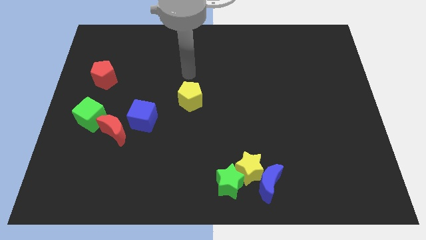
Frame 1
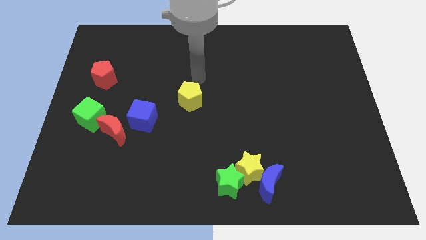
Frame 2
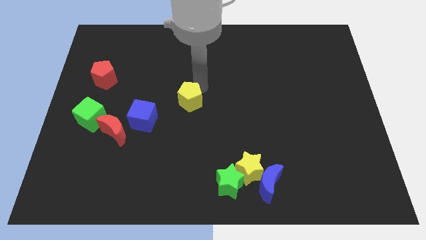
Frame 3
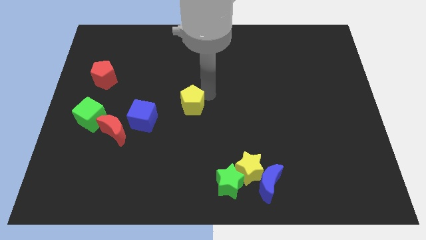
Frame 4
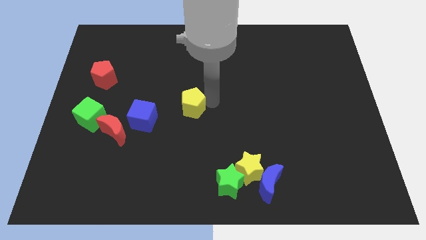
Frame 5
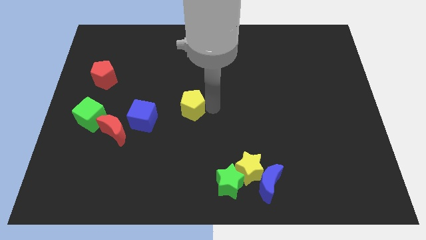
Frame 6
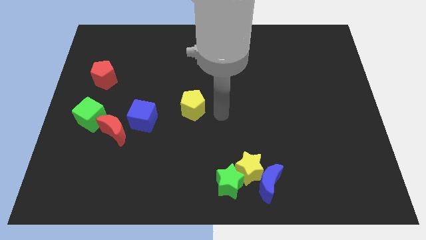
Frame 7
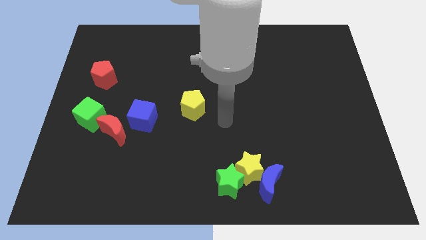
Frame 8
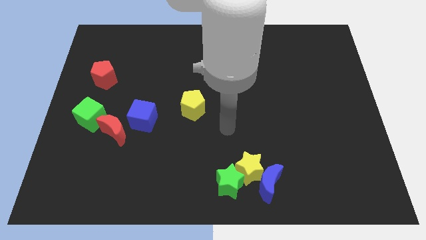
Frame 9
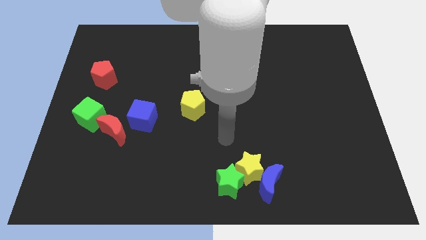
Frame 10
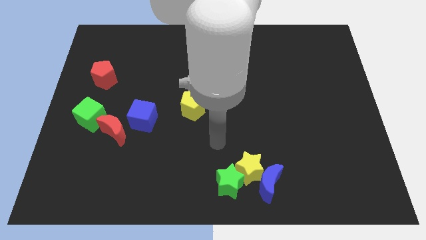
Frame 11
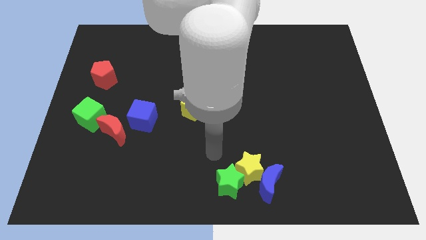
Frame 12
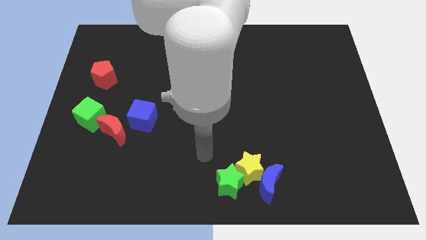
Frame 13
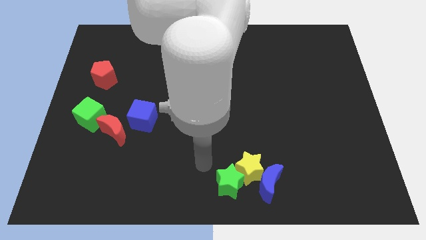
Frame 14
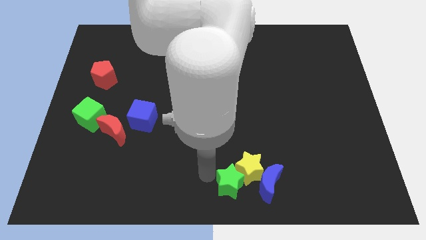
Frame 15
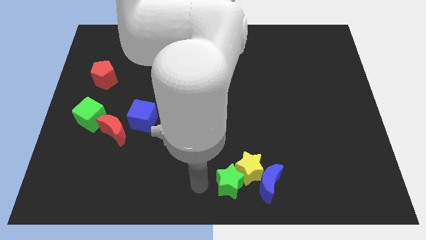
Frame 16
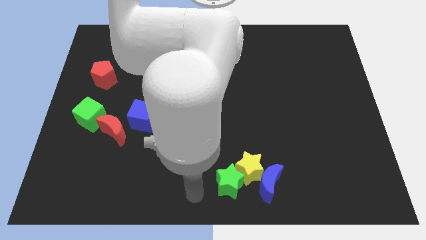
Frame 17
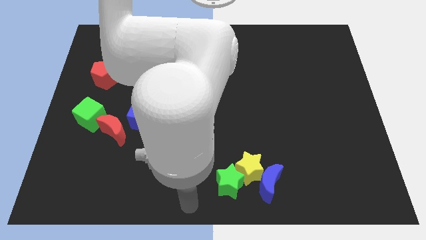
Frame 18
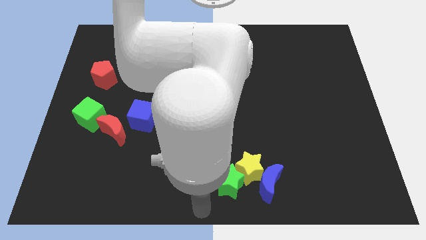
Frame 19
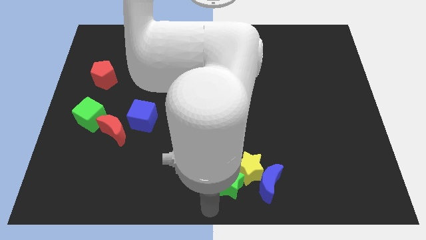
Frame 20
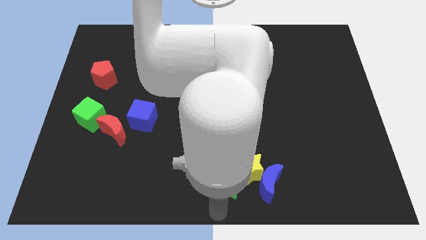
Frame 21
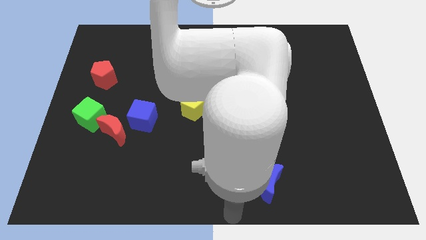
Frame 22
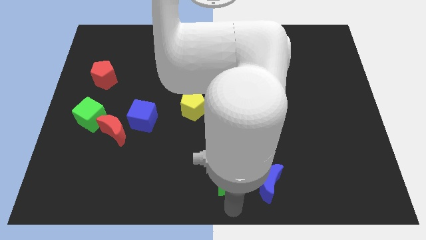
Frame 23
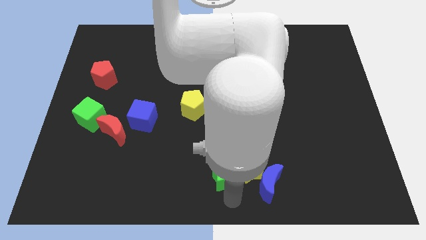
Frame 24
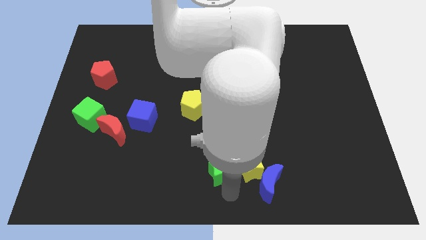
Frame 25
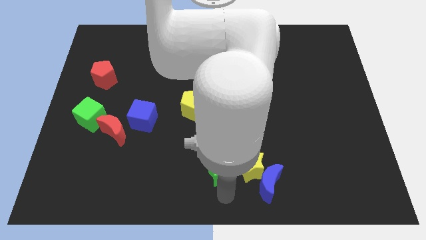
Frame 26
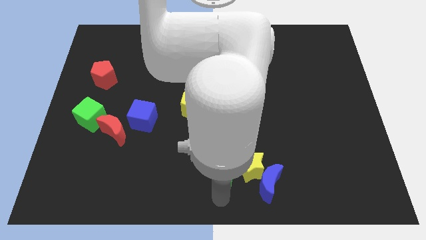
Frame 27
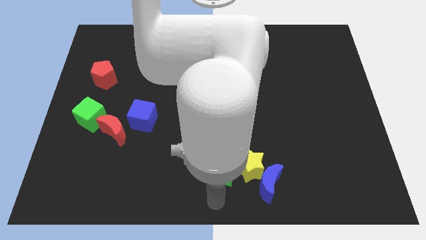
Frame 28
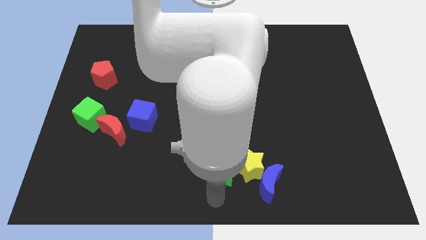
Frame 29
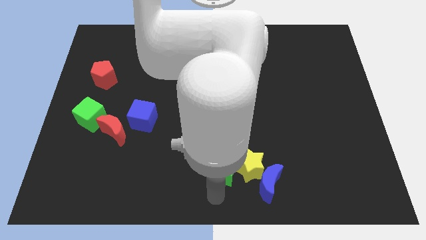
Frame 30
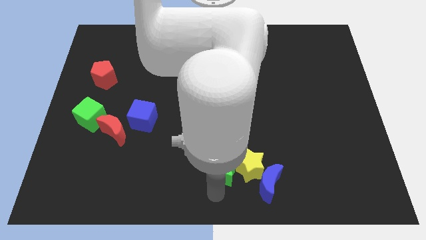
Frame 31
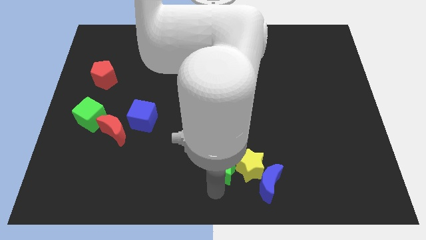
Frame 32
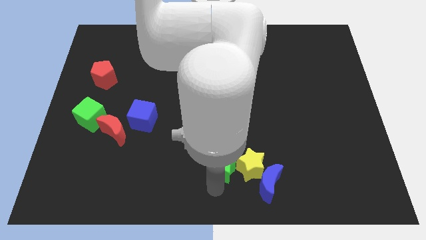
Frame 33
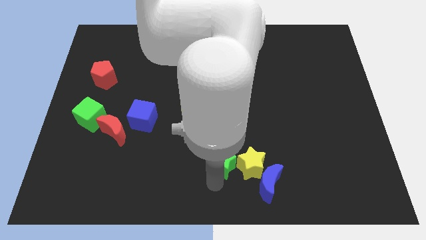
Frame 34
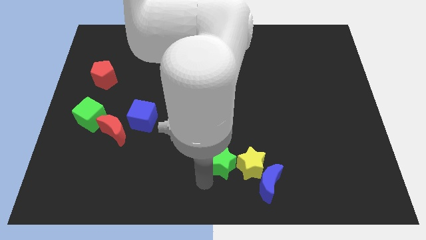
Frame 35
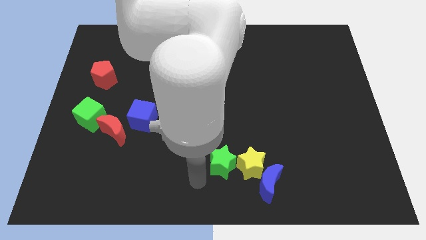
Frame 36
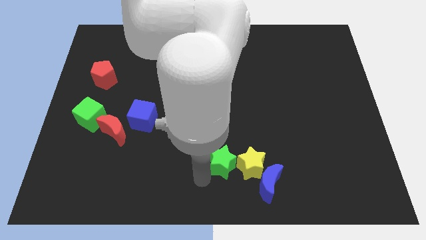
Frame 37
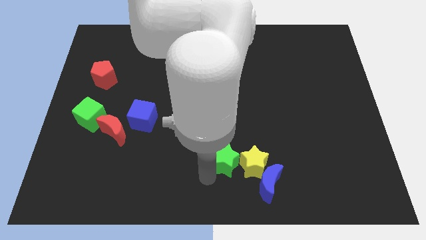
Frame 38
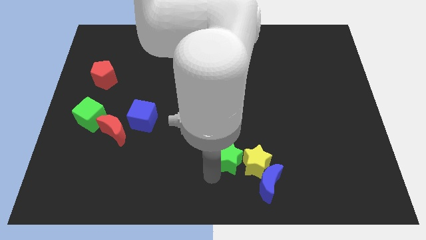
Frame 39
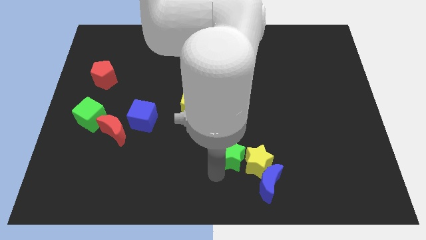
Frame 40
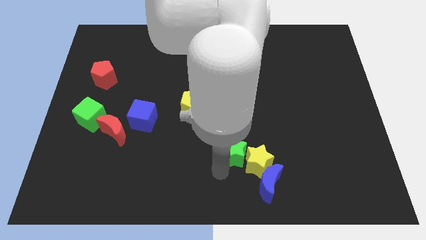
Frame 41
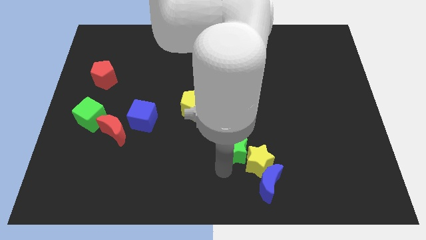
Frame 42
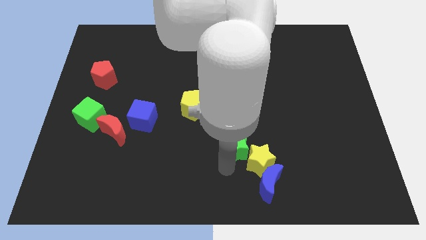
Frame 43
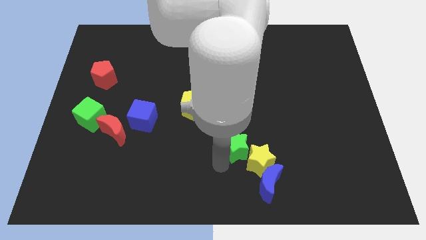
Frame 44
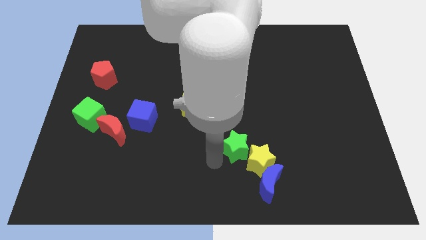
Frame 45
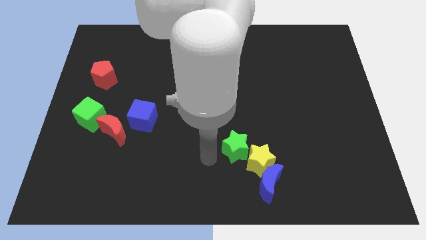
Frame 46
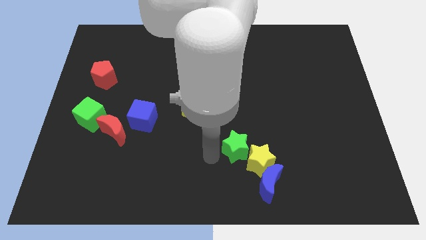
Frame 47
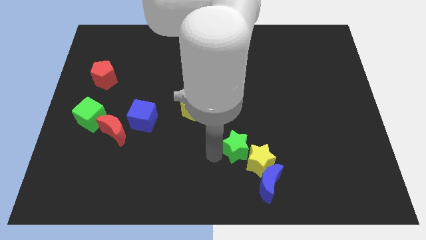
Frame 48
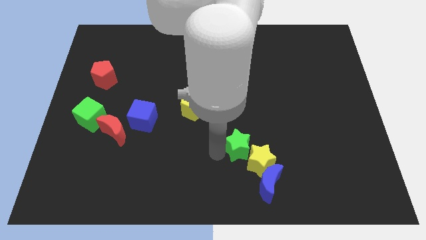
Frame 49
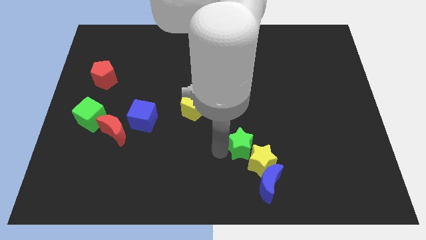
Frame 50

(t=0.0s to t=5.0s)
move the green star to the top side of the blue moon

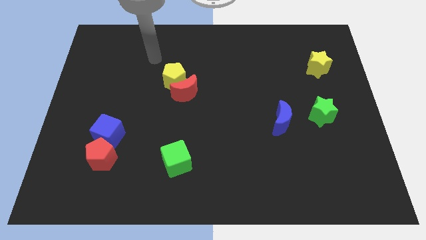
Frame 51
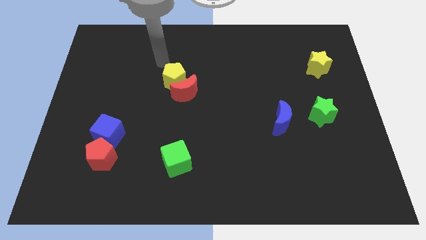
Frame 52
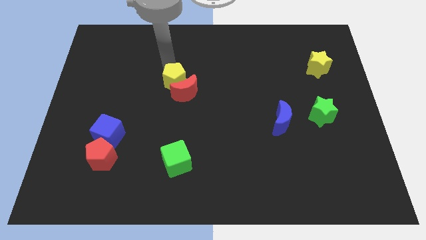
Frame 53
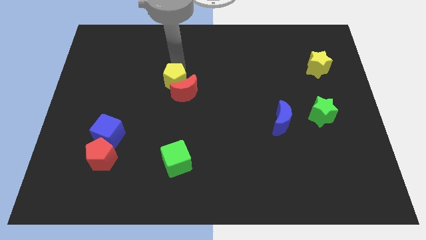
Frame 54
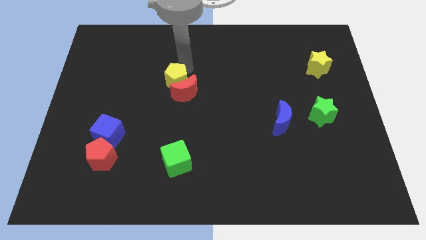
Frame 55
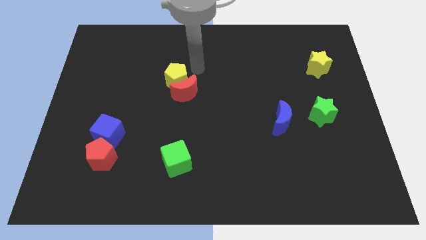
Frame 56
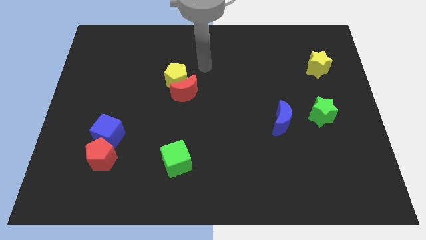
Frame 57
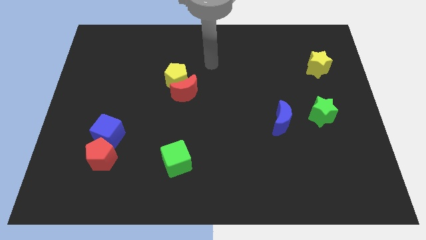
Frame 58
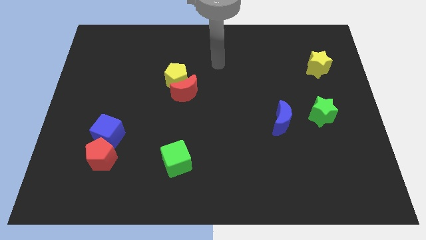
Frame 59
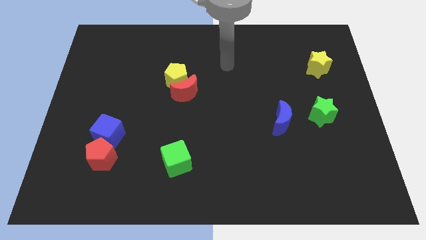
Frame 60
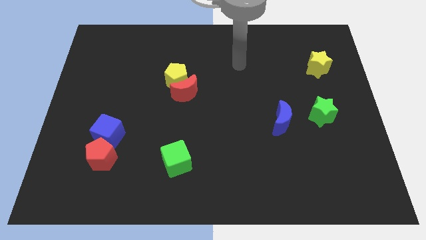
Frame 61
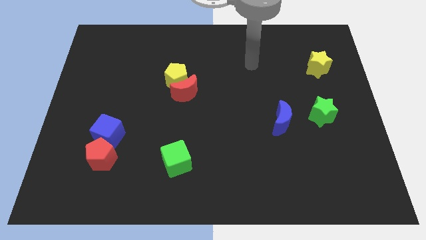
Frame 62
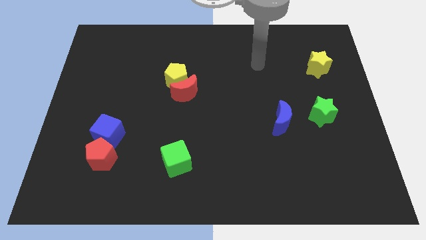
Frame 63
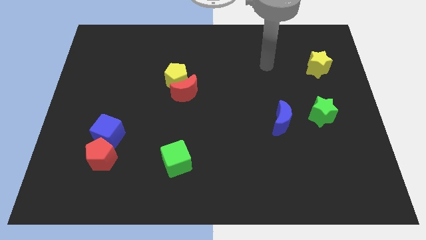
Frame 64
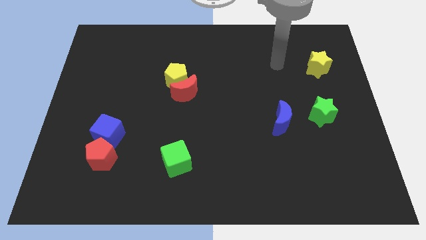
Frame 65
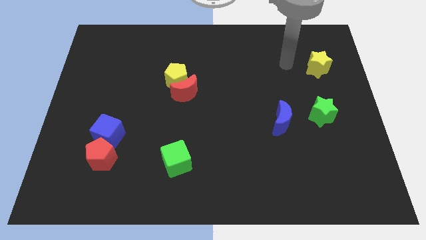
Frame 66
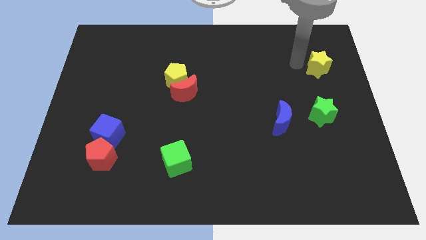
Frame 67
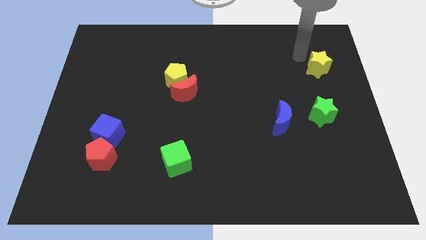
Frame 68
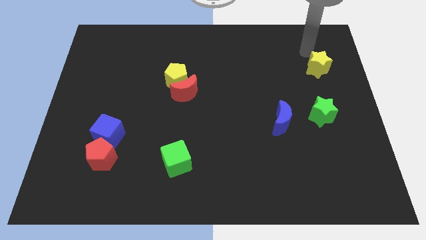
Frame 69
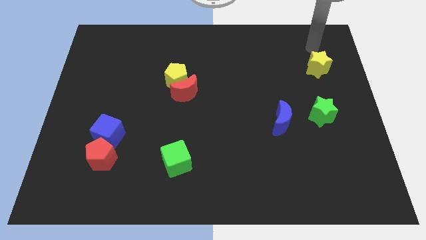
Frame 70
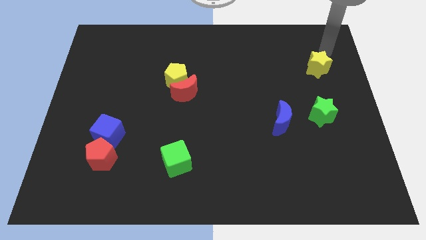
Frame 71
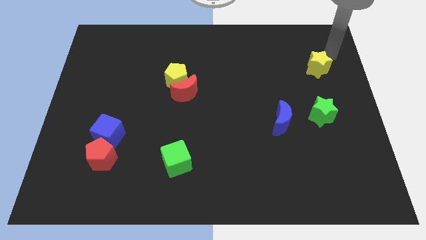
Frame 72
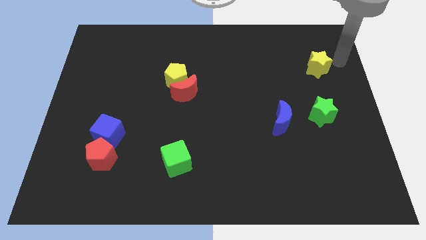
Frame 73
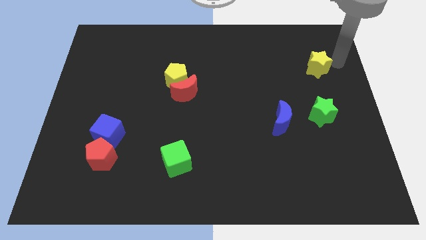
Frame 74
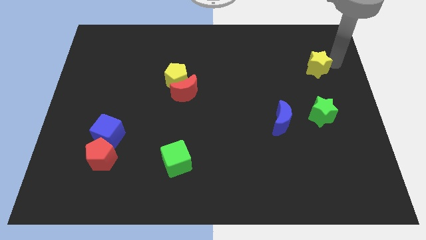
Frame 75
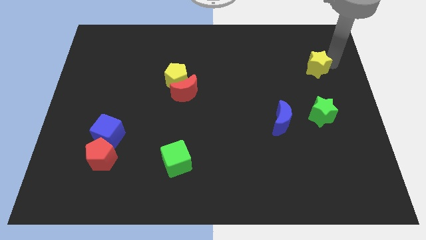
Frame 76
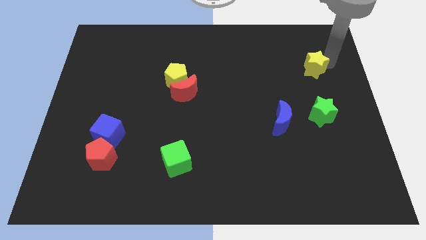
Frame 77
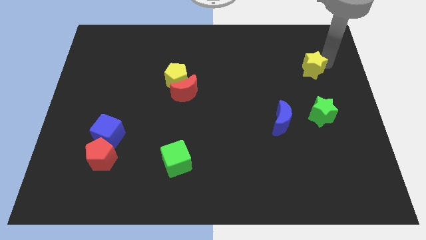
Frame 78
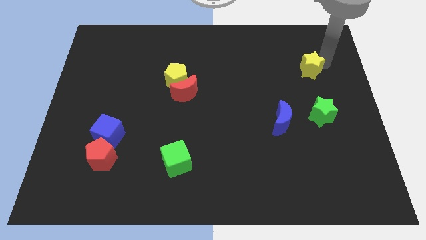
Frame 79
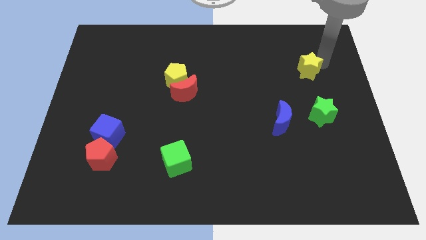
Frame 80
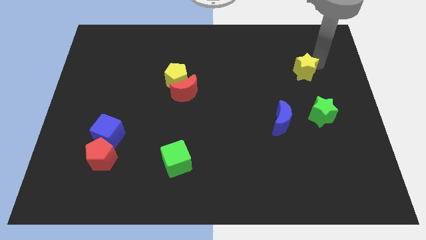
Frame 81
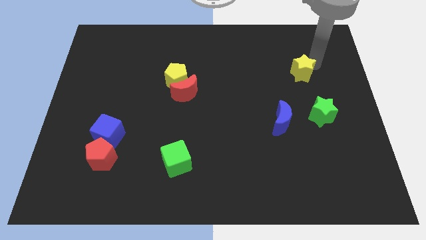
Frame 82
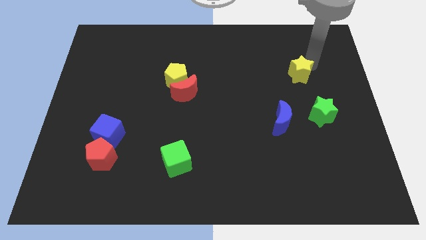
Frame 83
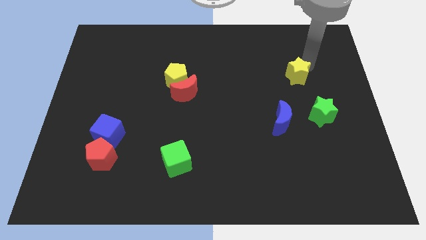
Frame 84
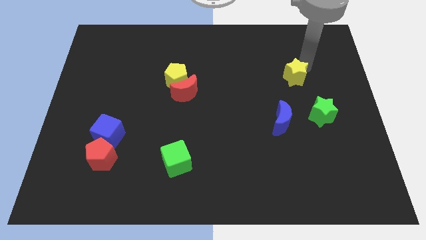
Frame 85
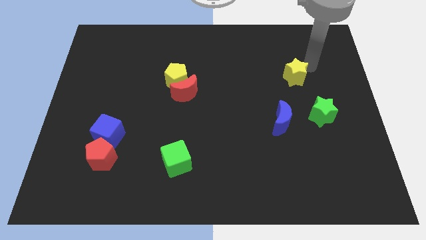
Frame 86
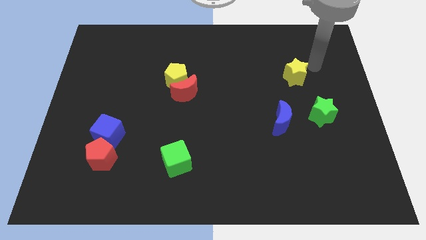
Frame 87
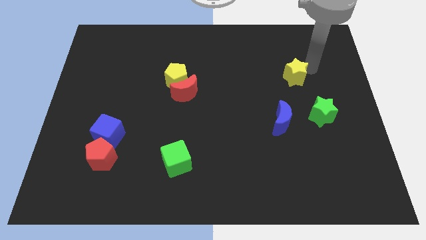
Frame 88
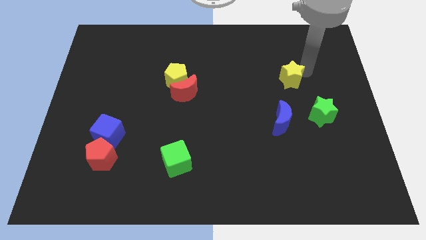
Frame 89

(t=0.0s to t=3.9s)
slide the yellow star above the blue moon
